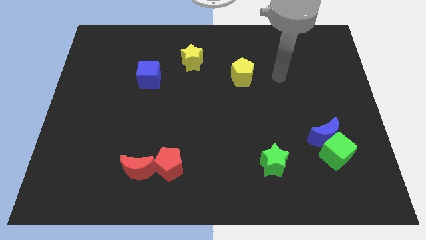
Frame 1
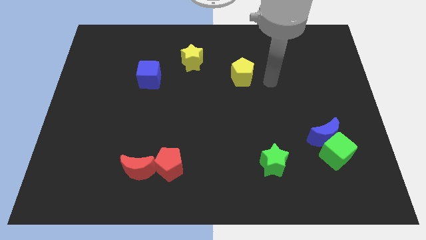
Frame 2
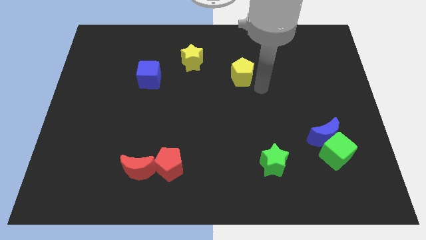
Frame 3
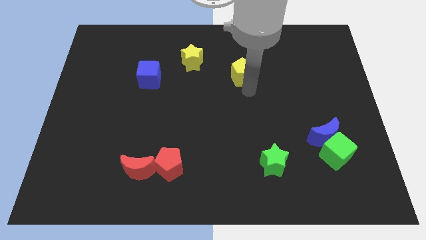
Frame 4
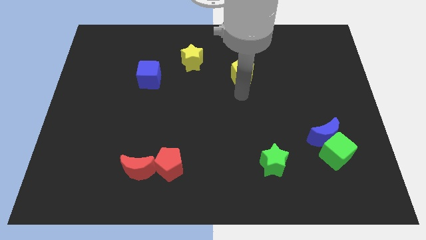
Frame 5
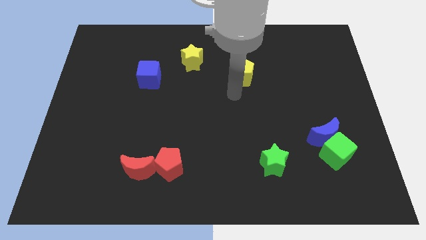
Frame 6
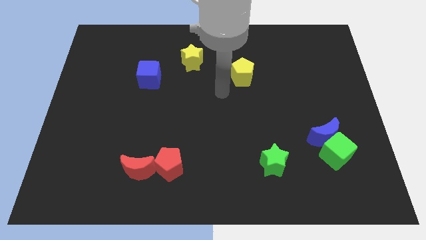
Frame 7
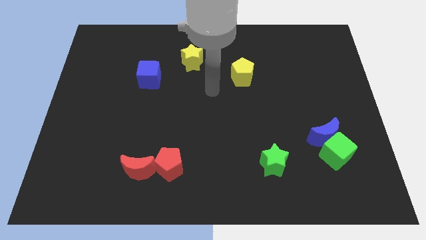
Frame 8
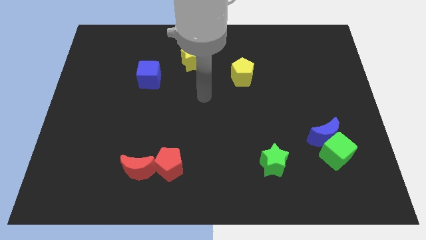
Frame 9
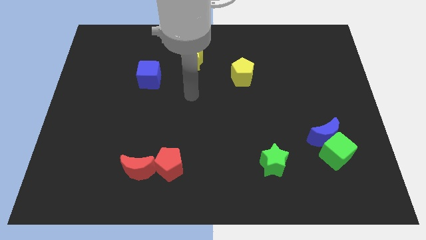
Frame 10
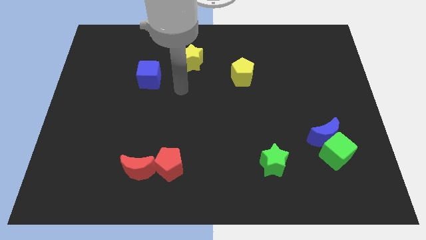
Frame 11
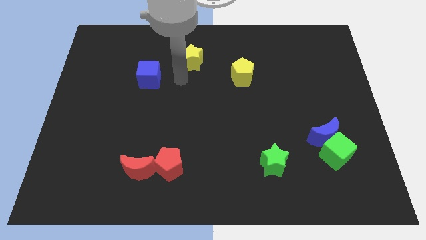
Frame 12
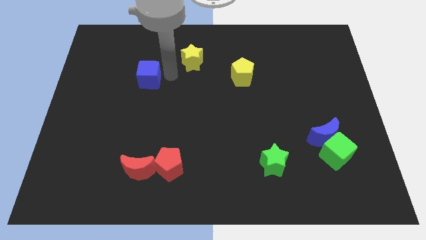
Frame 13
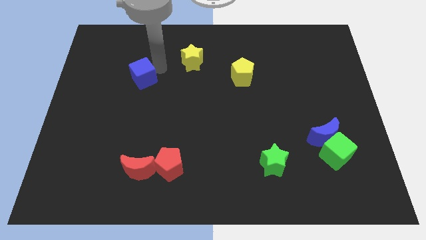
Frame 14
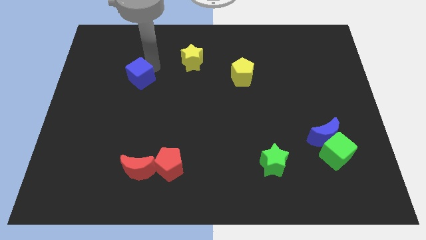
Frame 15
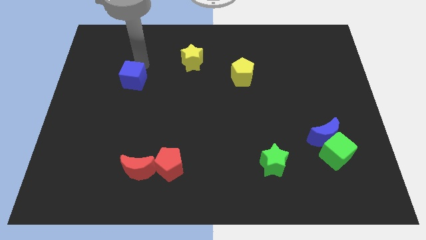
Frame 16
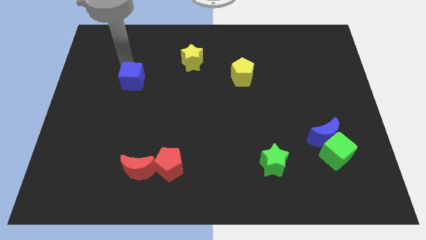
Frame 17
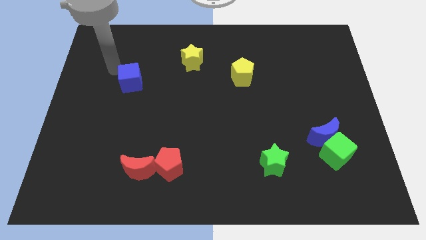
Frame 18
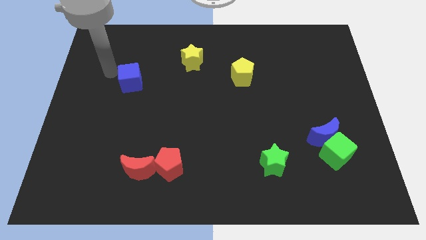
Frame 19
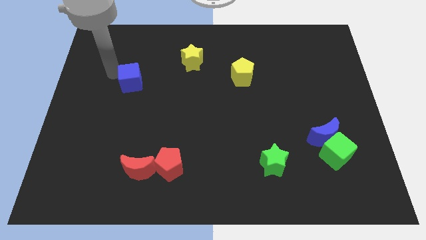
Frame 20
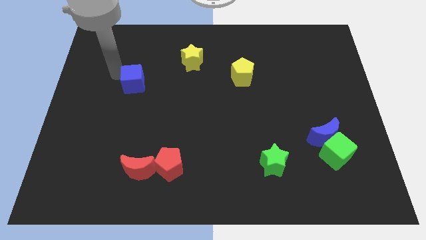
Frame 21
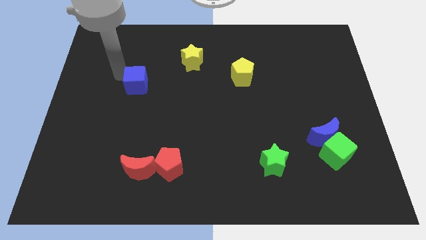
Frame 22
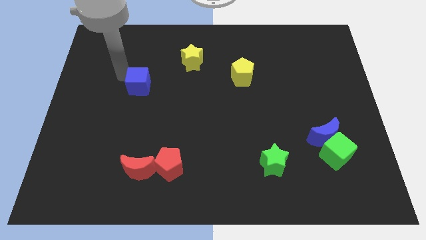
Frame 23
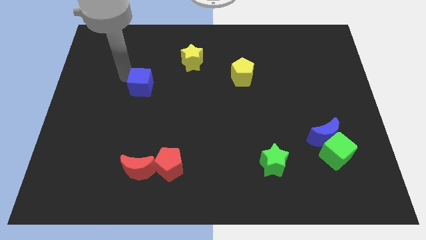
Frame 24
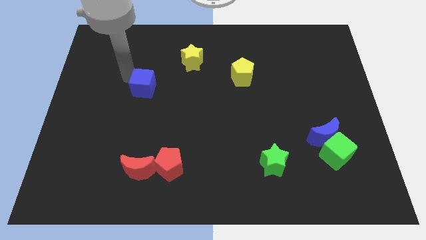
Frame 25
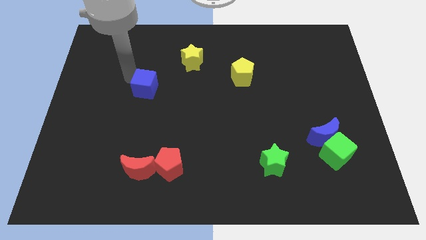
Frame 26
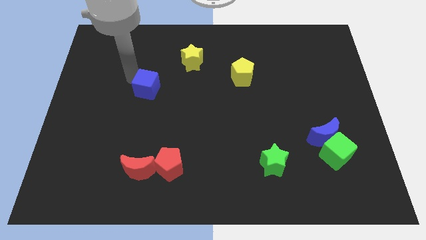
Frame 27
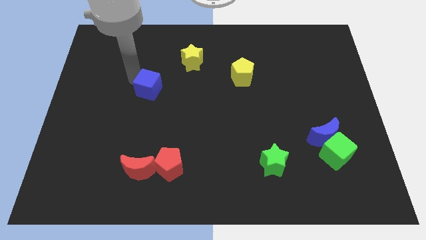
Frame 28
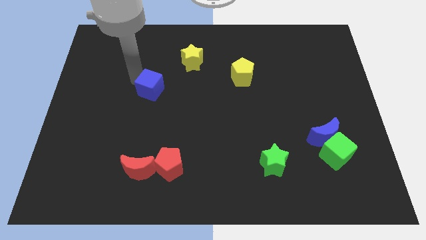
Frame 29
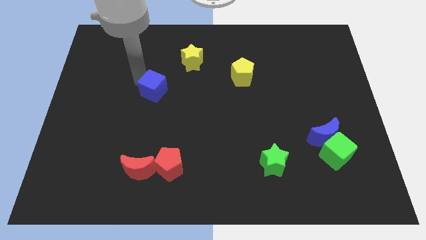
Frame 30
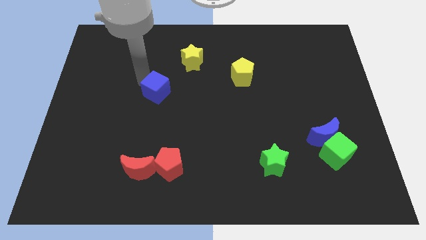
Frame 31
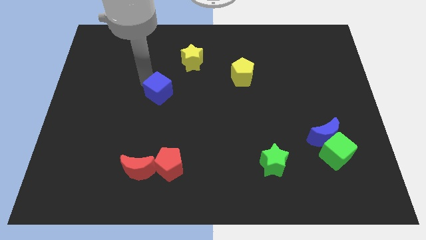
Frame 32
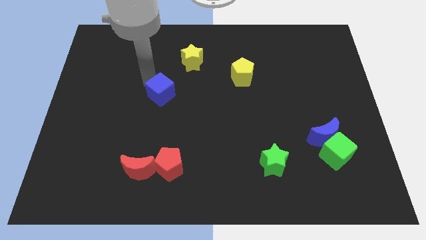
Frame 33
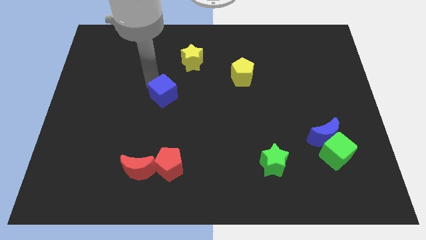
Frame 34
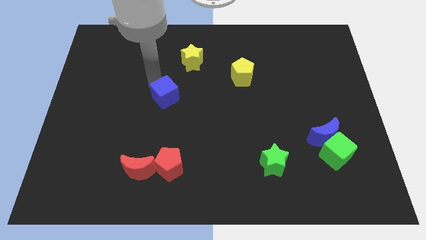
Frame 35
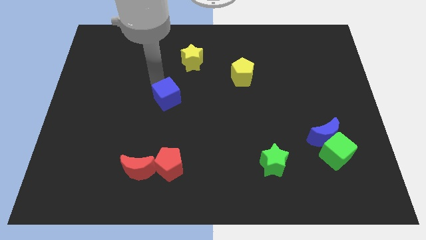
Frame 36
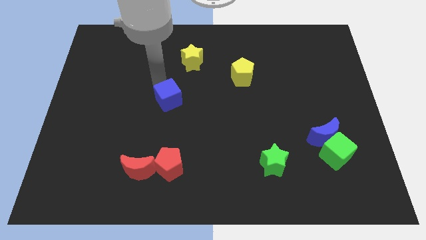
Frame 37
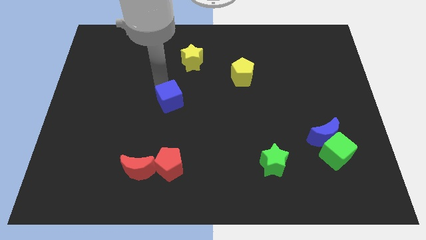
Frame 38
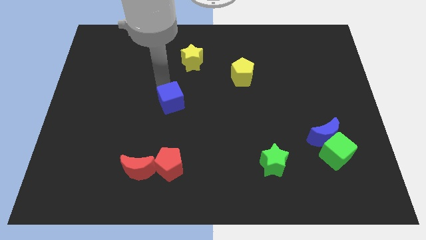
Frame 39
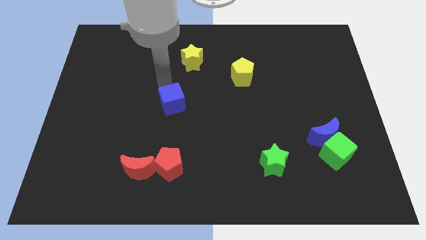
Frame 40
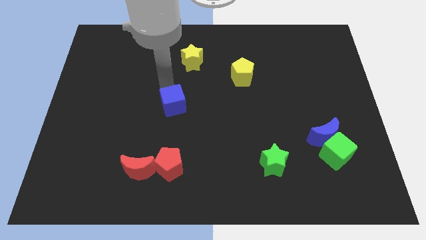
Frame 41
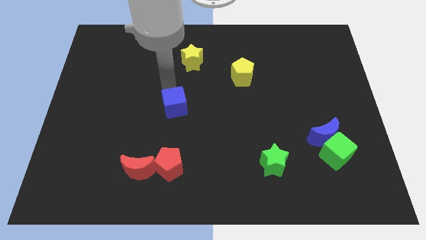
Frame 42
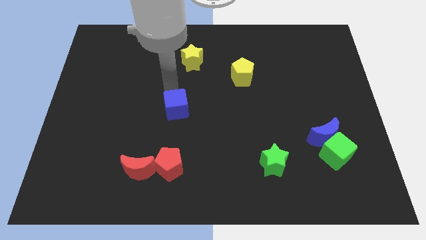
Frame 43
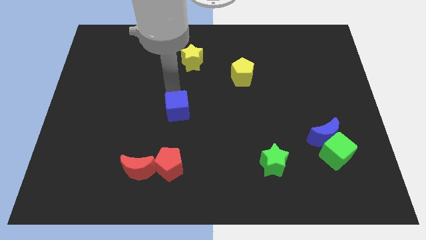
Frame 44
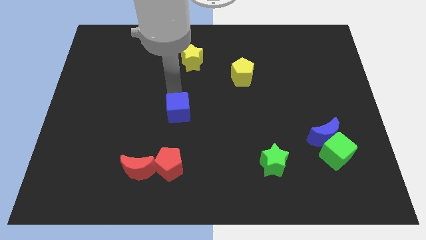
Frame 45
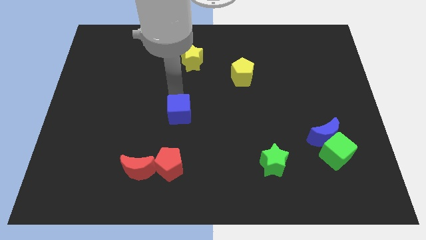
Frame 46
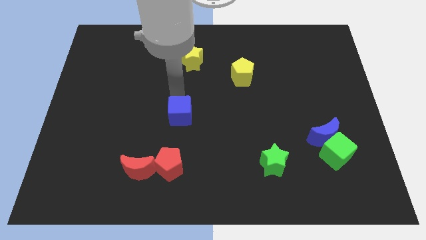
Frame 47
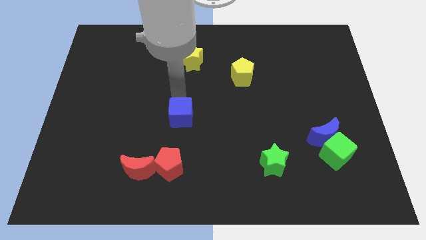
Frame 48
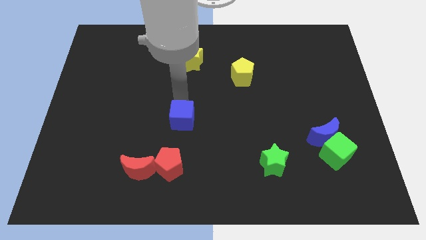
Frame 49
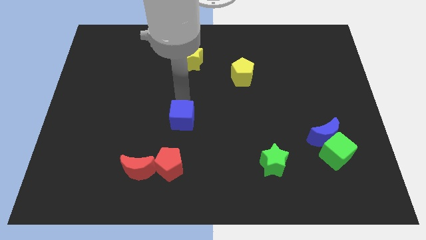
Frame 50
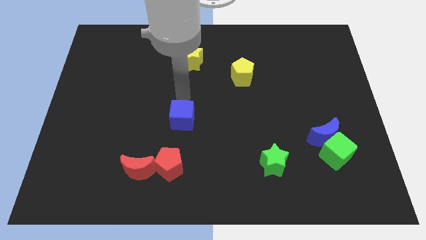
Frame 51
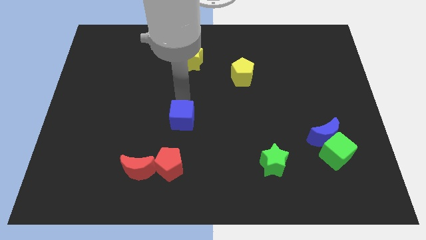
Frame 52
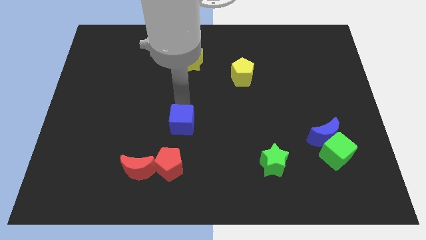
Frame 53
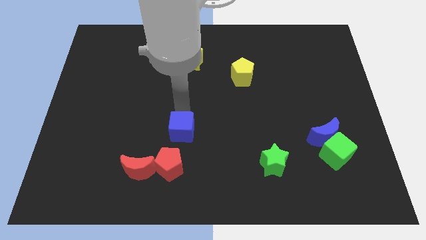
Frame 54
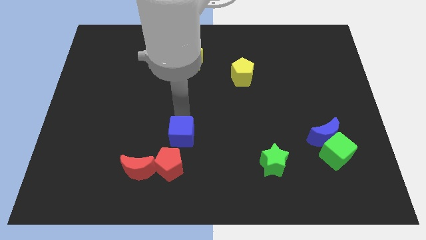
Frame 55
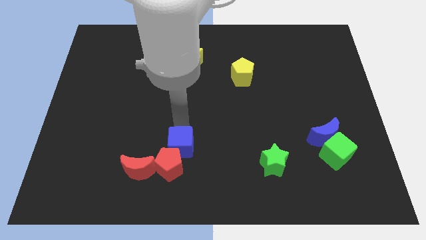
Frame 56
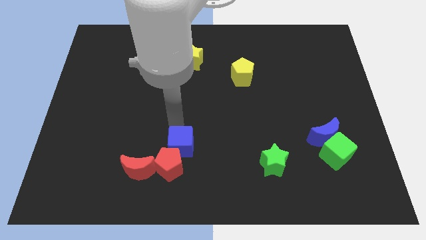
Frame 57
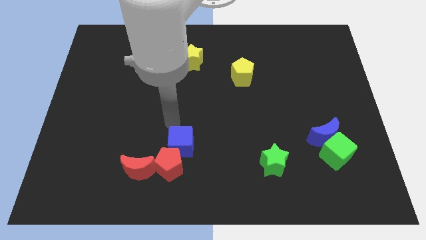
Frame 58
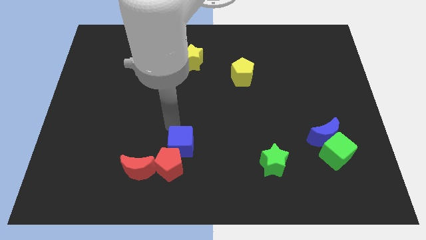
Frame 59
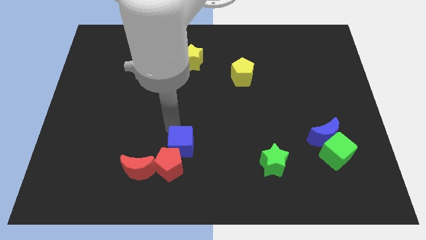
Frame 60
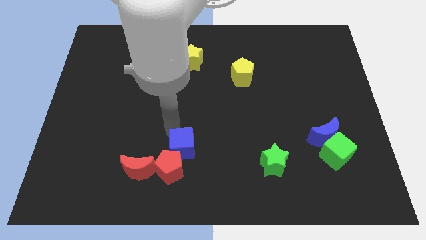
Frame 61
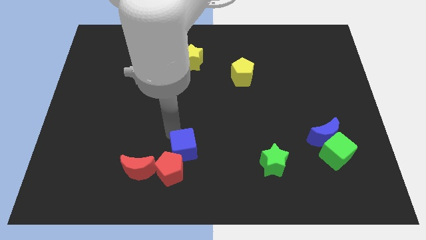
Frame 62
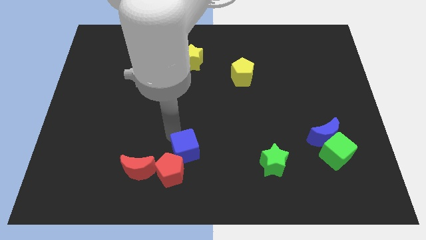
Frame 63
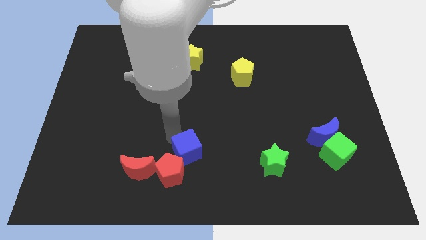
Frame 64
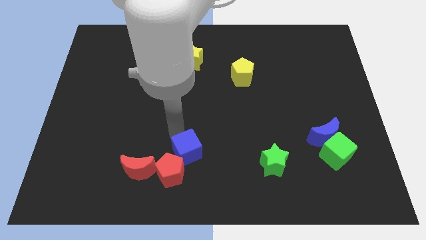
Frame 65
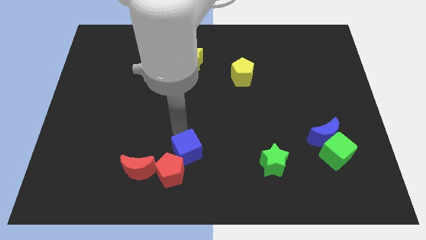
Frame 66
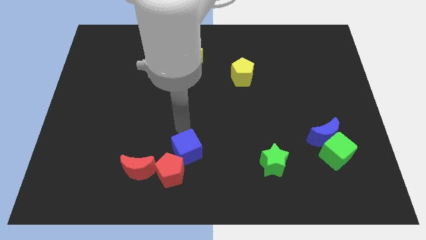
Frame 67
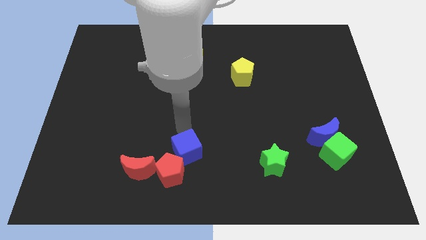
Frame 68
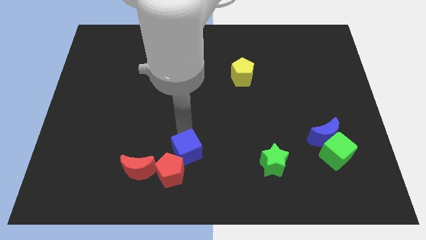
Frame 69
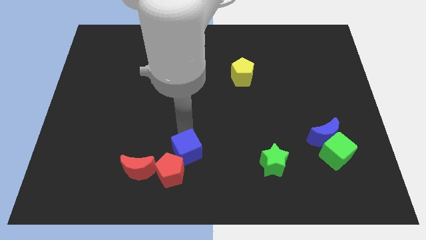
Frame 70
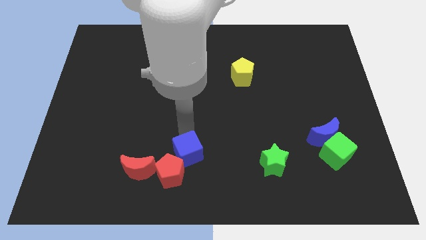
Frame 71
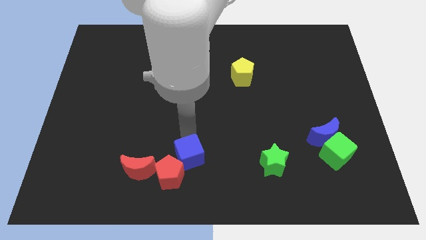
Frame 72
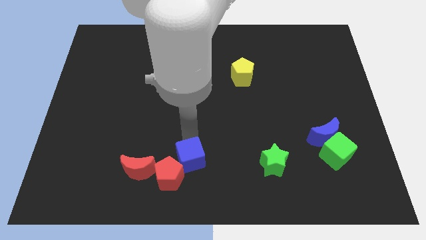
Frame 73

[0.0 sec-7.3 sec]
put the blue cube to the bottom side
